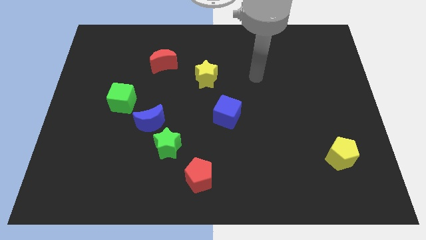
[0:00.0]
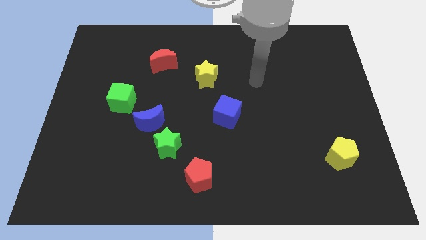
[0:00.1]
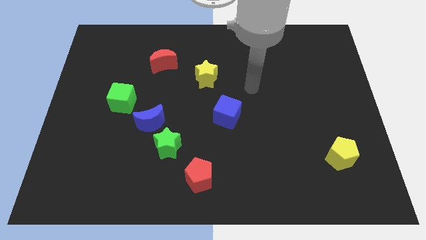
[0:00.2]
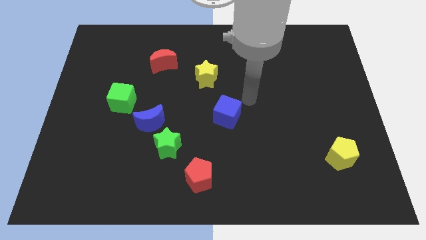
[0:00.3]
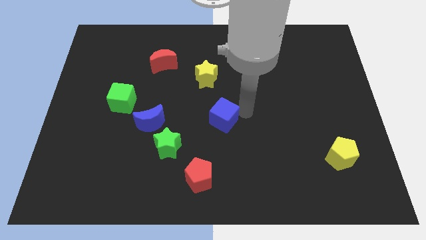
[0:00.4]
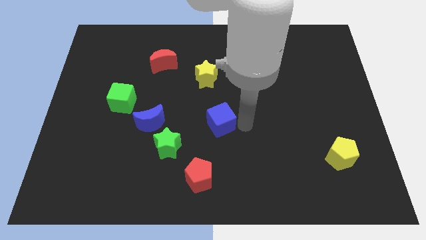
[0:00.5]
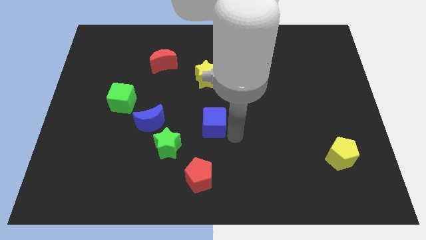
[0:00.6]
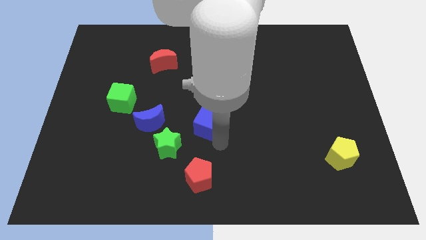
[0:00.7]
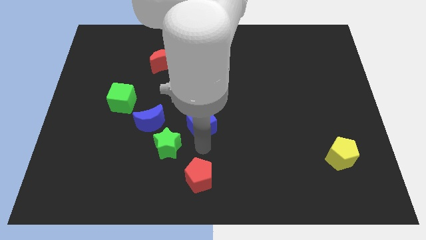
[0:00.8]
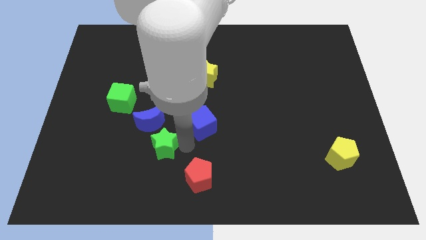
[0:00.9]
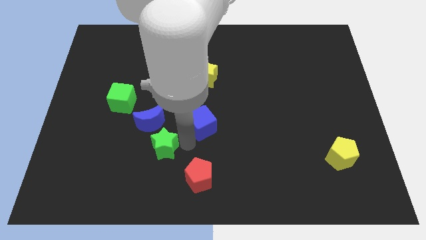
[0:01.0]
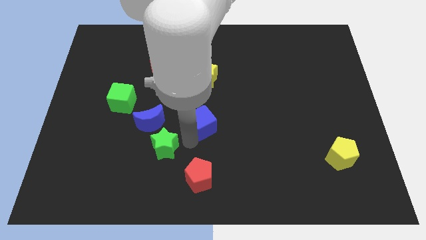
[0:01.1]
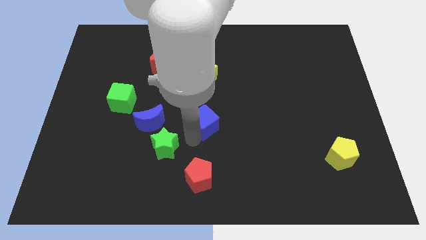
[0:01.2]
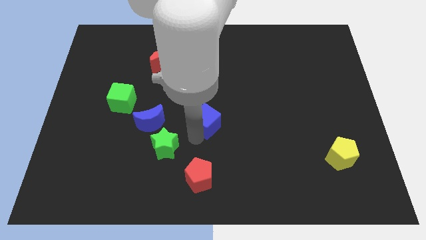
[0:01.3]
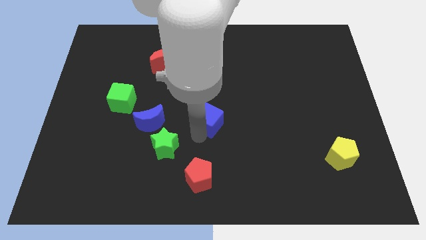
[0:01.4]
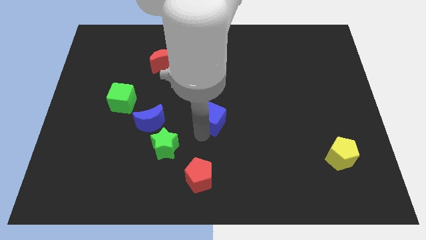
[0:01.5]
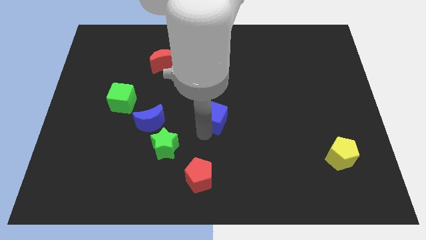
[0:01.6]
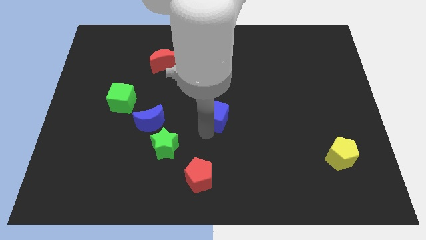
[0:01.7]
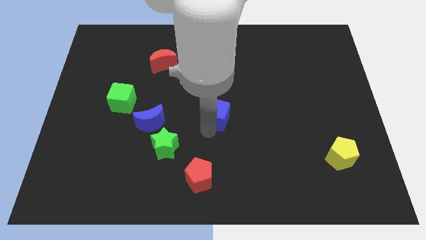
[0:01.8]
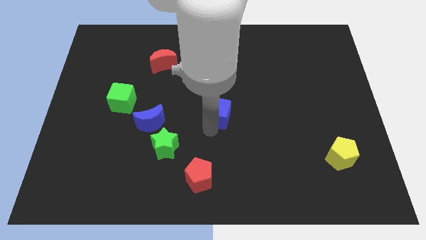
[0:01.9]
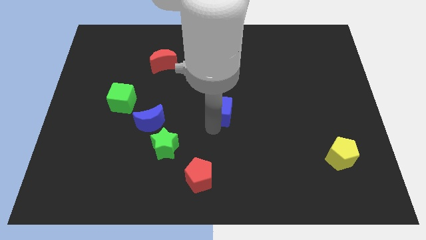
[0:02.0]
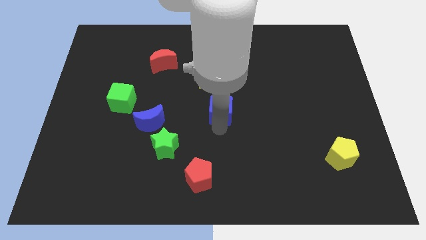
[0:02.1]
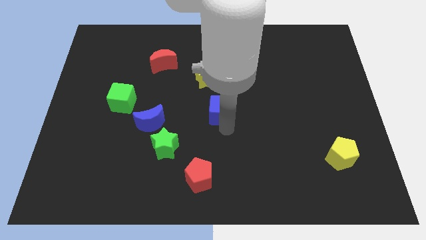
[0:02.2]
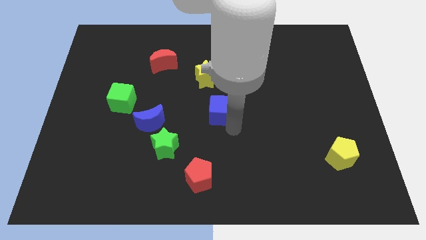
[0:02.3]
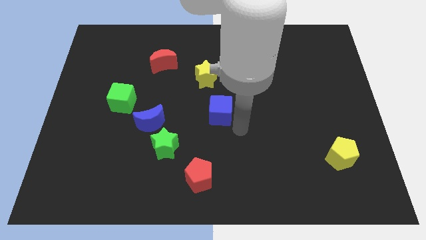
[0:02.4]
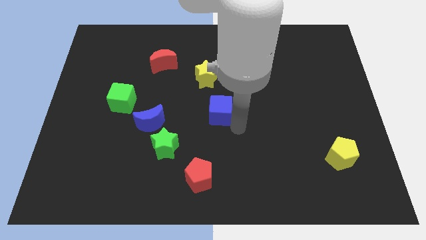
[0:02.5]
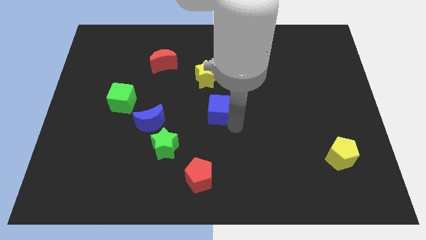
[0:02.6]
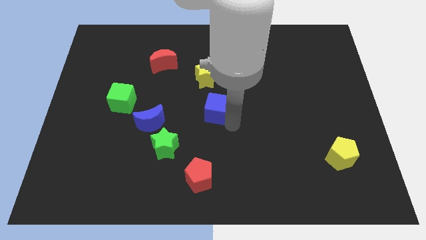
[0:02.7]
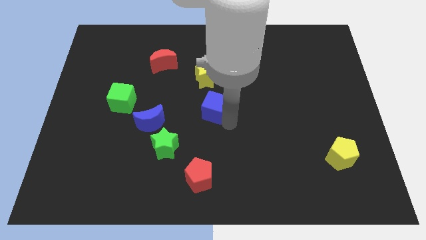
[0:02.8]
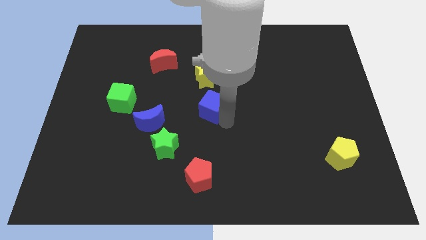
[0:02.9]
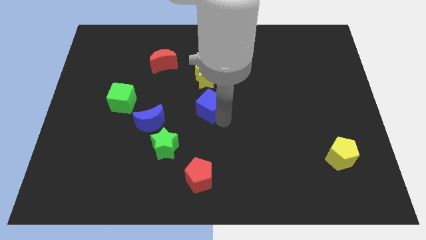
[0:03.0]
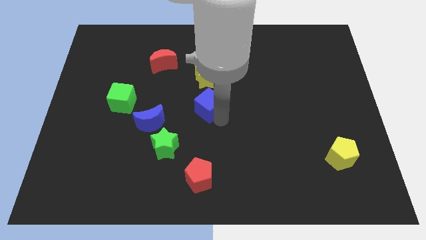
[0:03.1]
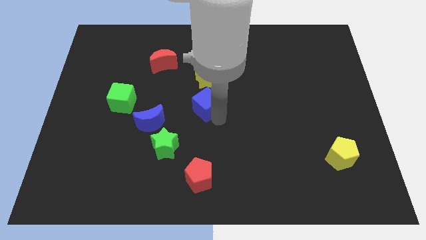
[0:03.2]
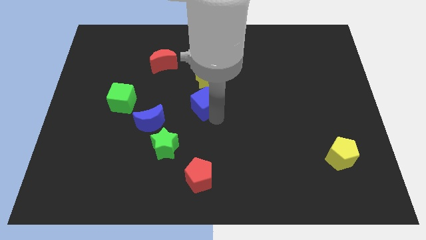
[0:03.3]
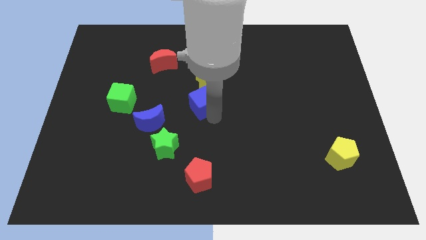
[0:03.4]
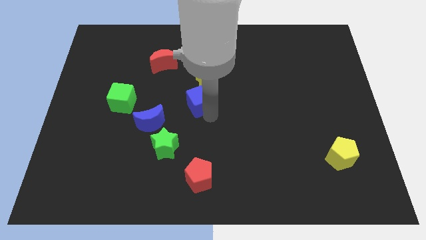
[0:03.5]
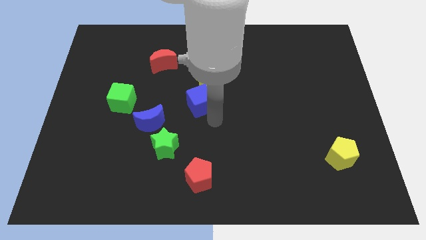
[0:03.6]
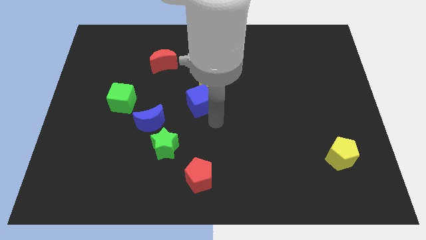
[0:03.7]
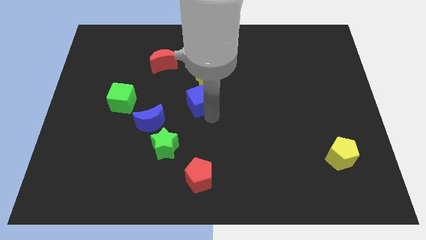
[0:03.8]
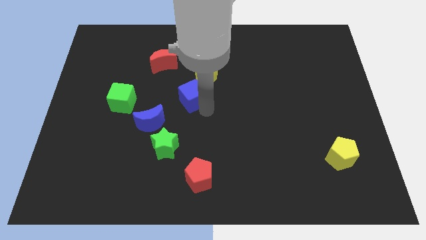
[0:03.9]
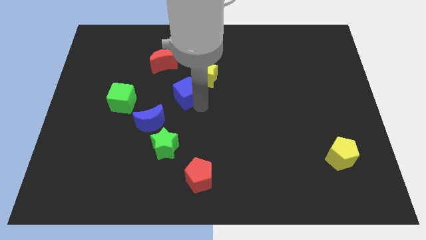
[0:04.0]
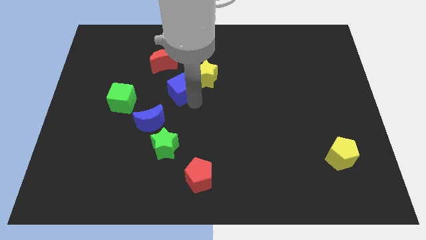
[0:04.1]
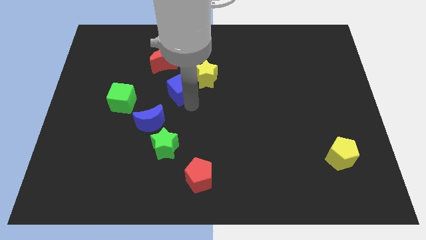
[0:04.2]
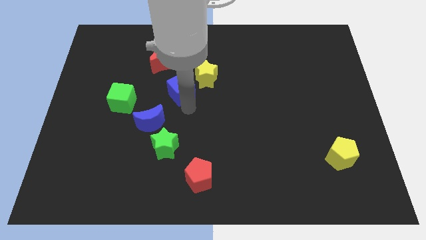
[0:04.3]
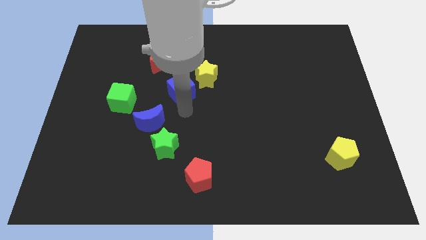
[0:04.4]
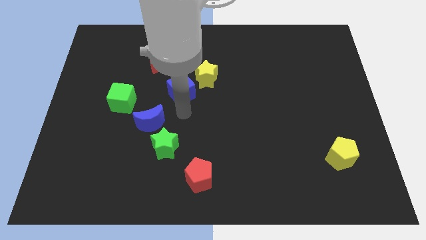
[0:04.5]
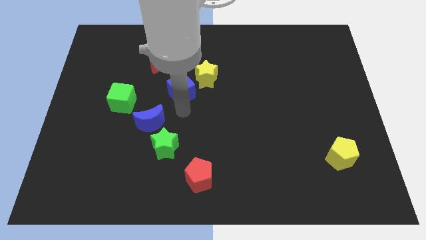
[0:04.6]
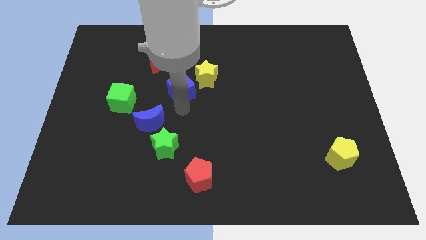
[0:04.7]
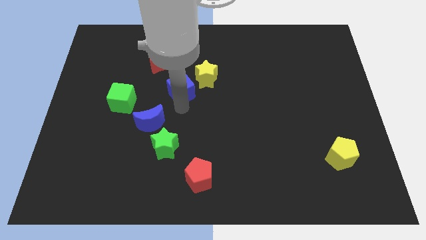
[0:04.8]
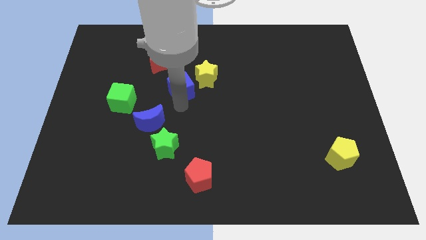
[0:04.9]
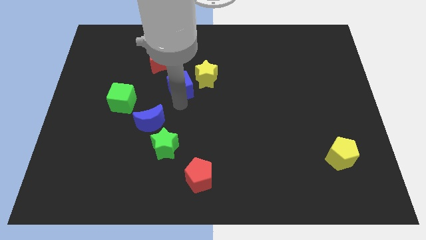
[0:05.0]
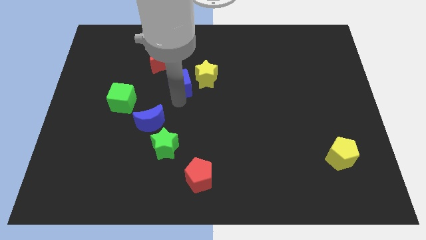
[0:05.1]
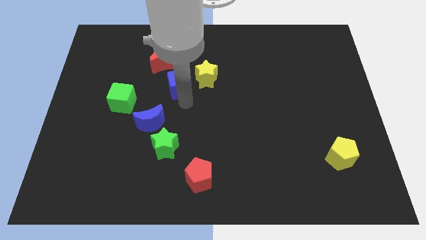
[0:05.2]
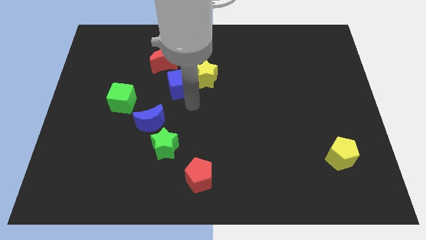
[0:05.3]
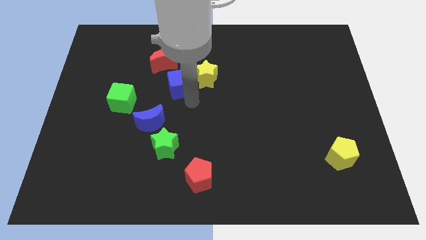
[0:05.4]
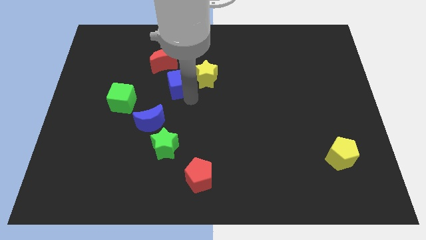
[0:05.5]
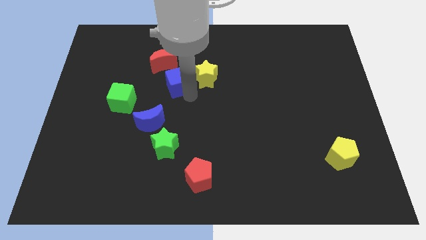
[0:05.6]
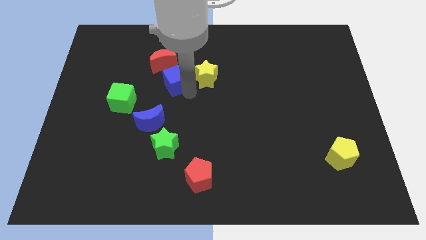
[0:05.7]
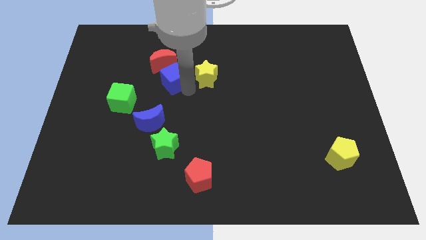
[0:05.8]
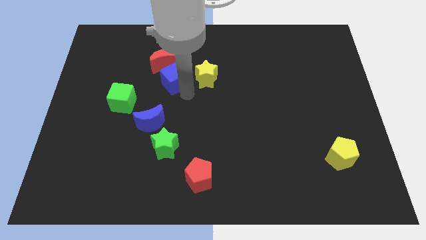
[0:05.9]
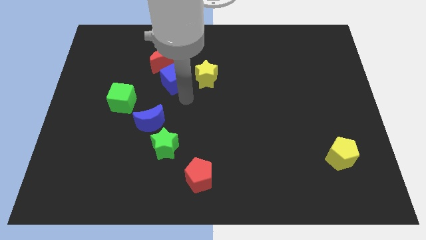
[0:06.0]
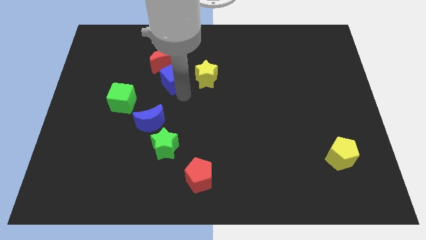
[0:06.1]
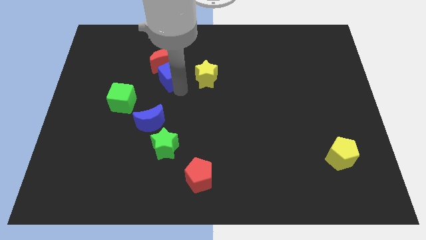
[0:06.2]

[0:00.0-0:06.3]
slide the blue cube to the red moon
